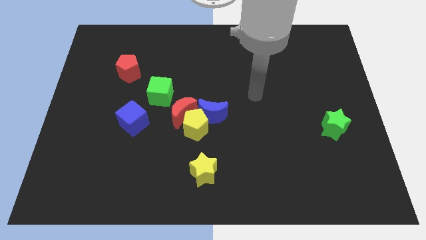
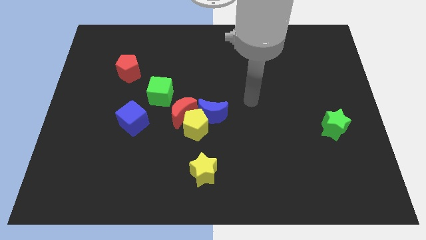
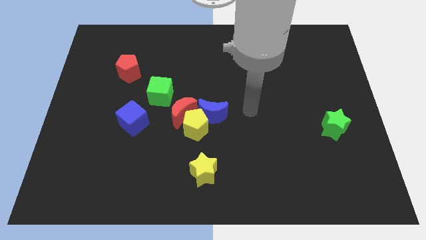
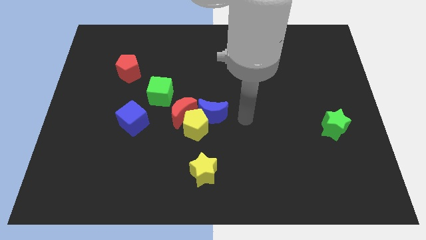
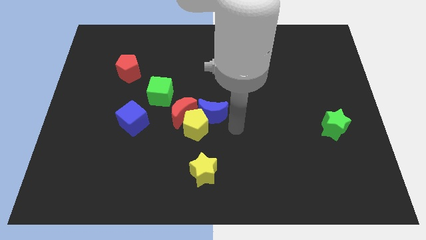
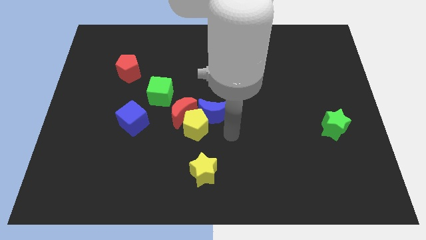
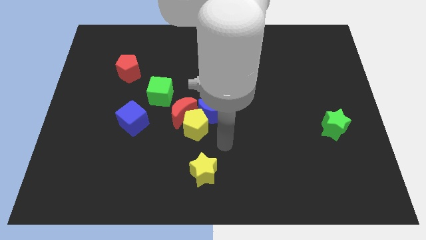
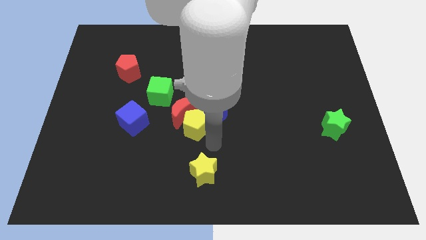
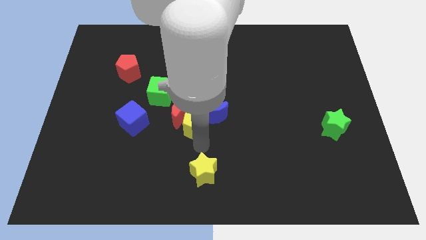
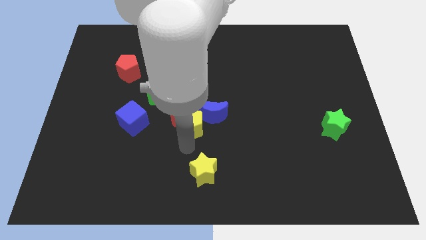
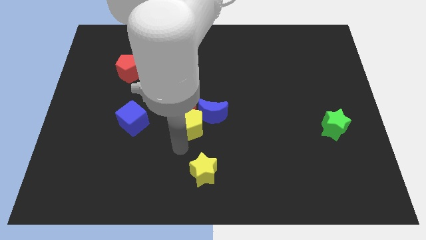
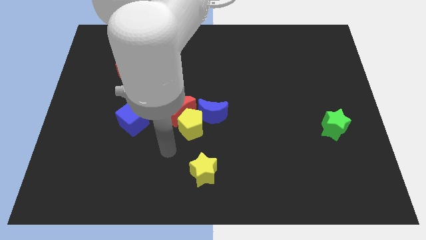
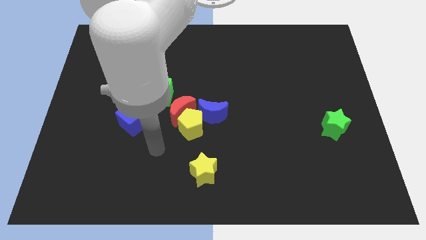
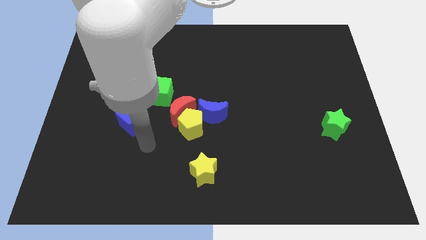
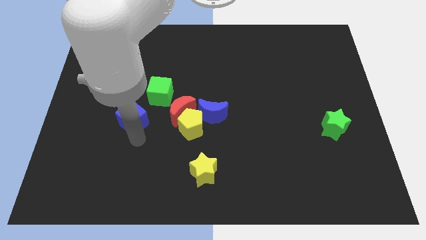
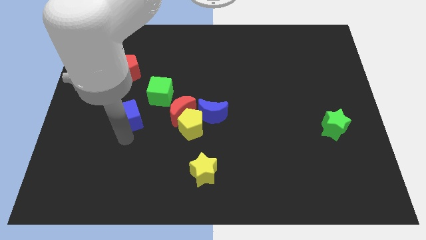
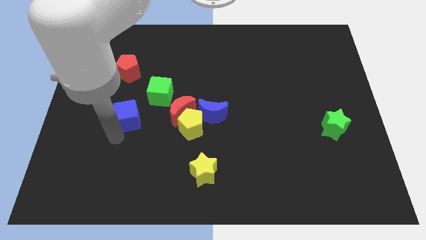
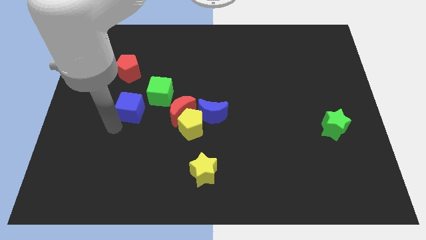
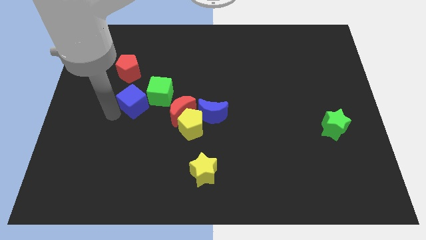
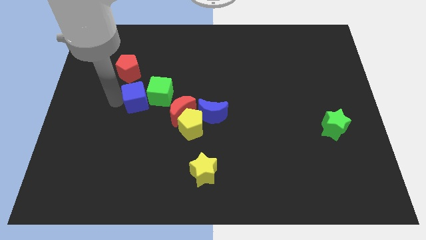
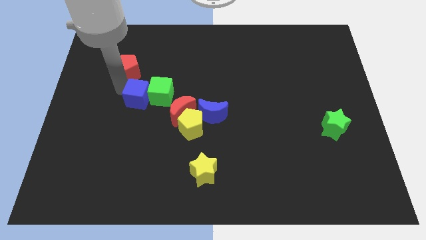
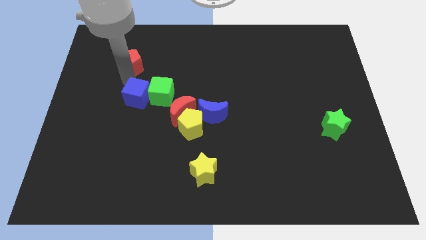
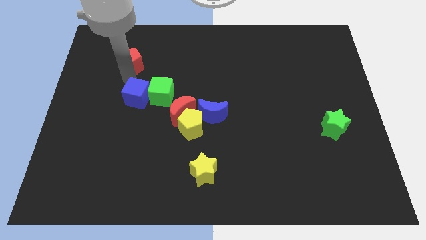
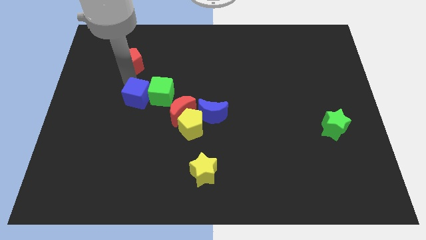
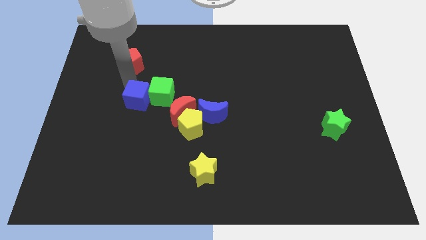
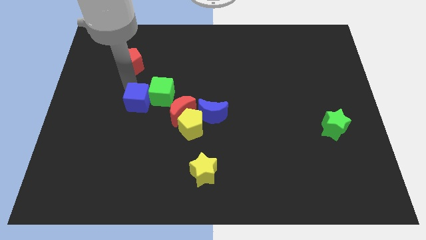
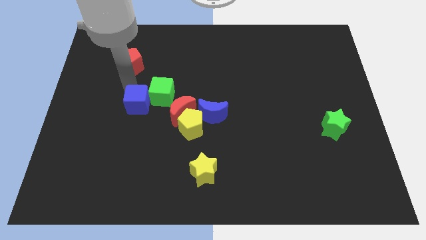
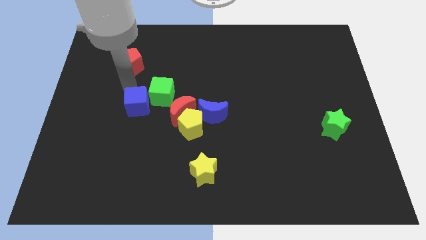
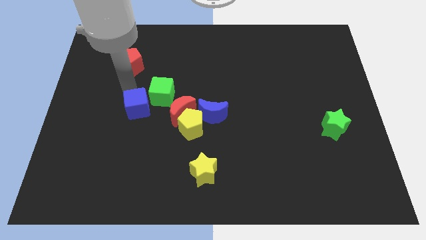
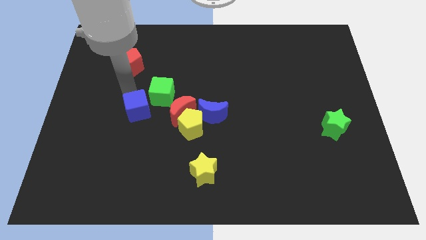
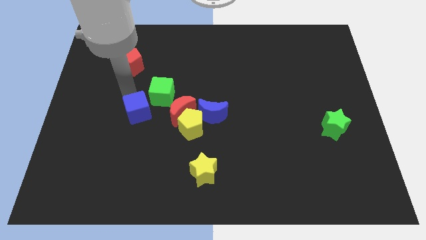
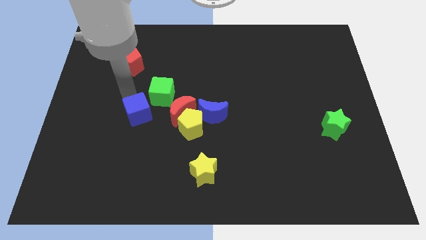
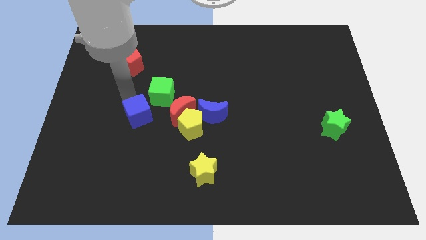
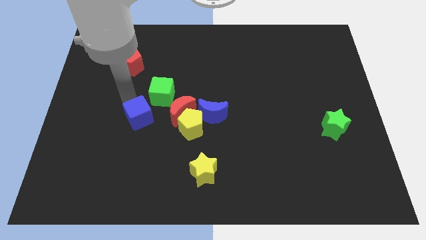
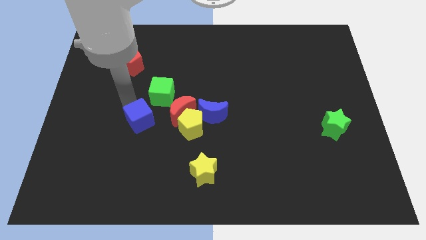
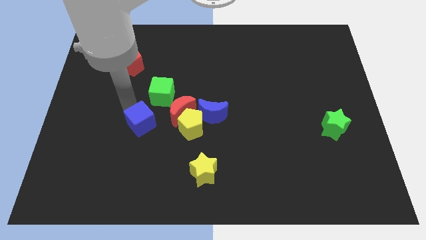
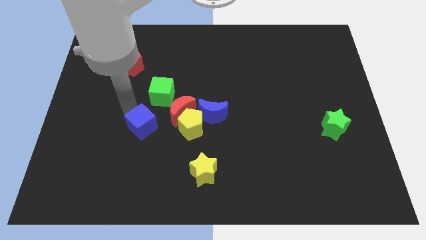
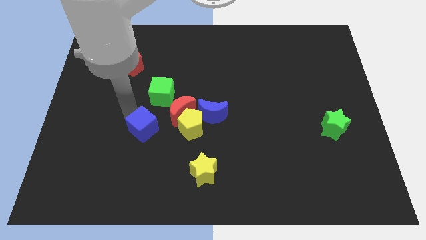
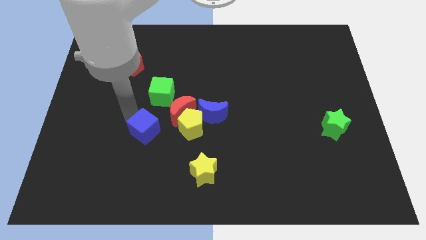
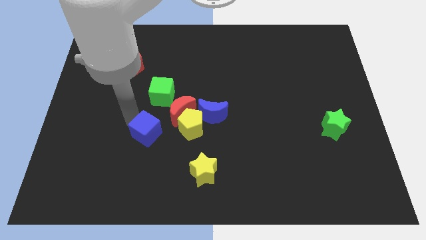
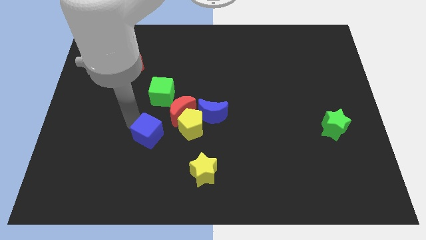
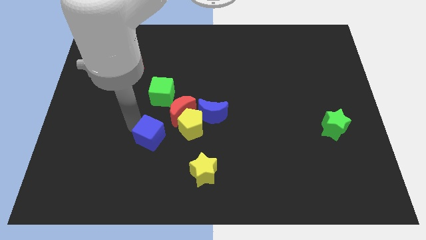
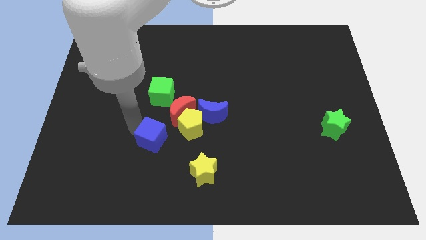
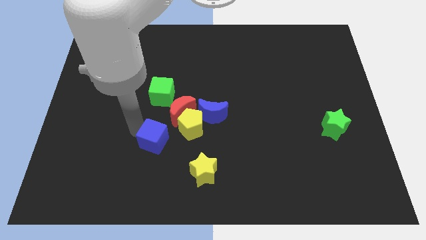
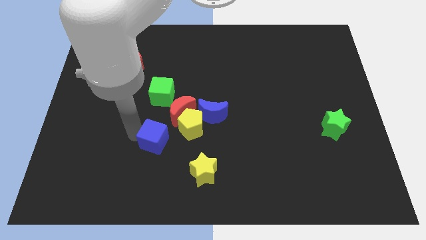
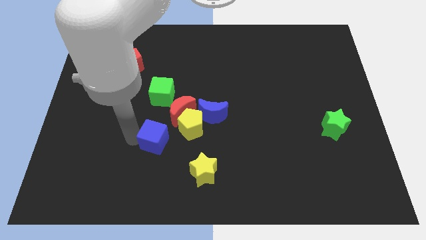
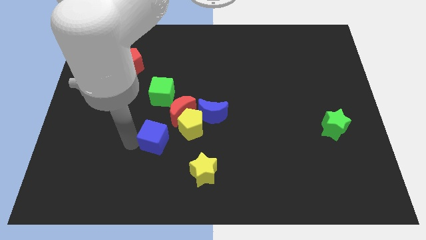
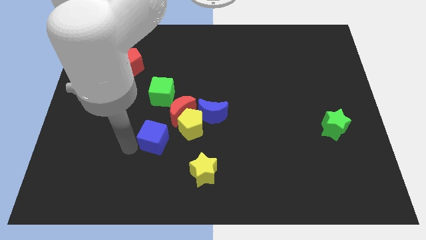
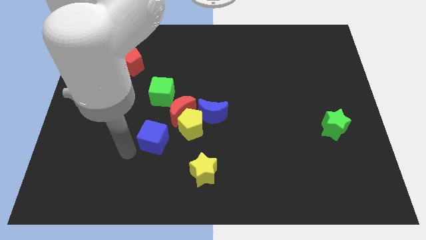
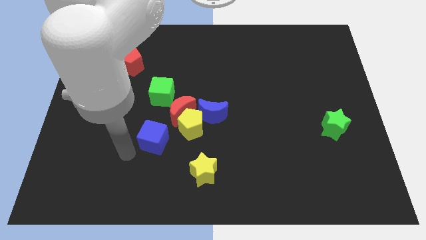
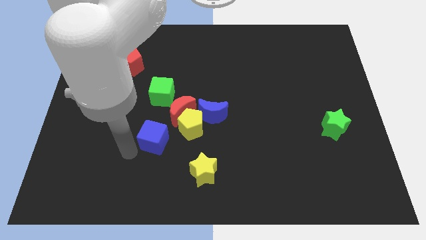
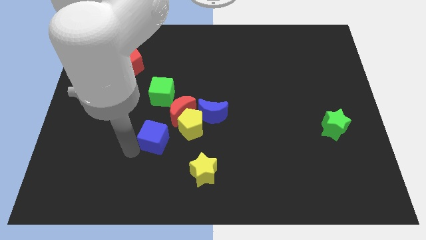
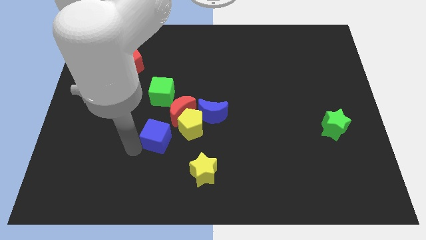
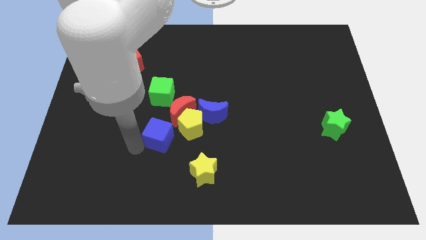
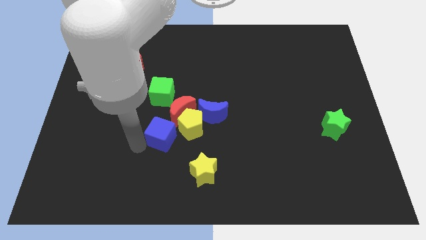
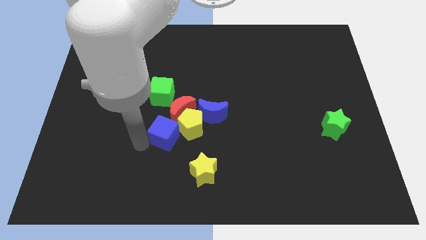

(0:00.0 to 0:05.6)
put the blue cube close to the yellow pentagon

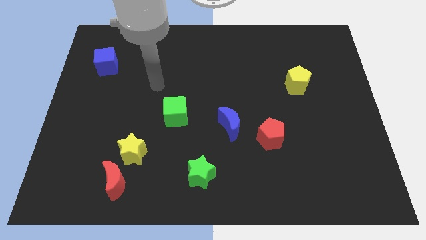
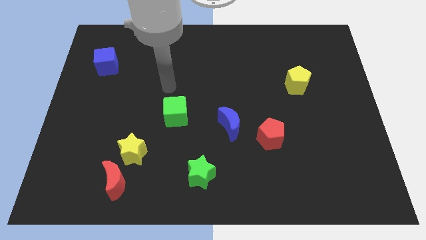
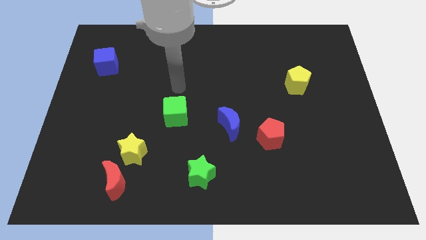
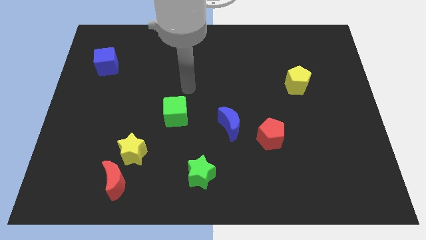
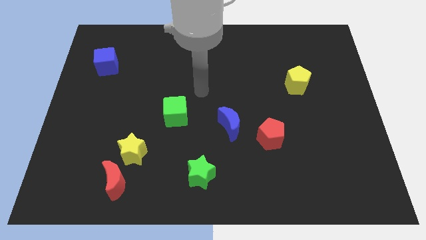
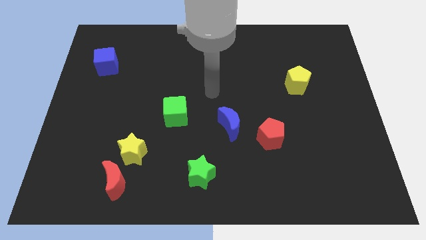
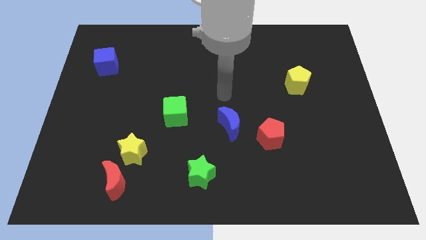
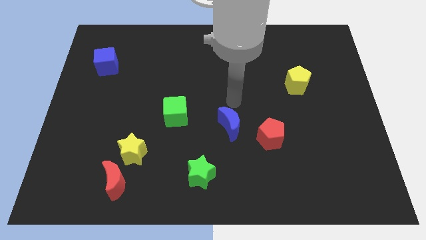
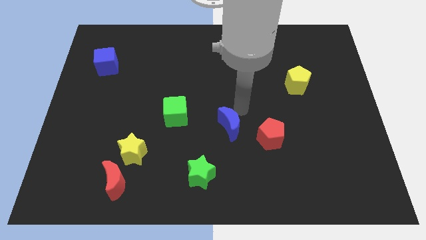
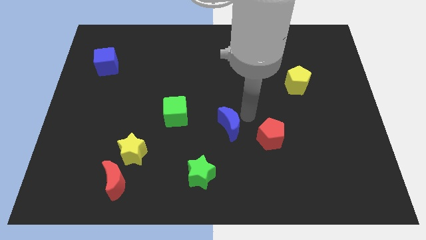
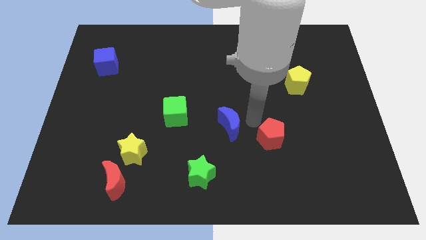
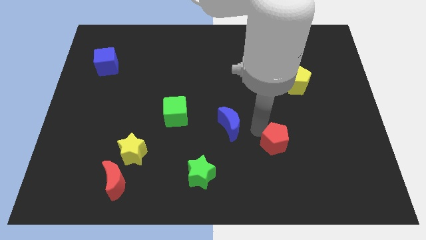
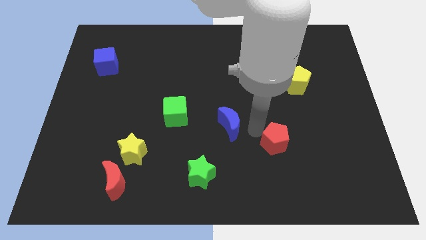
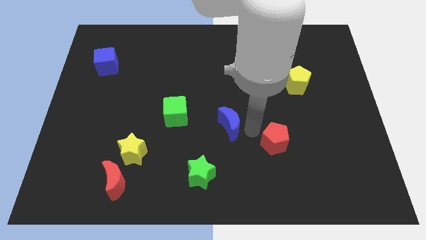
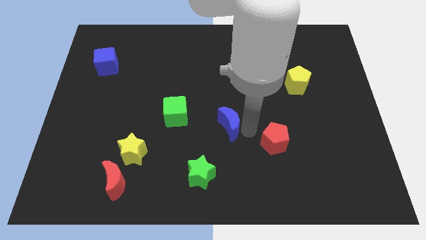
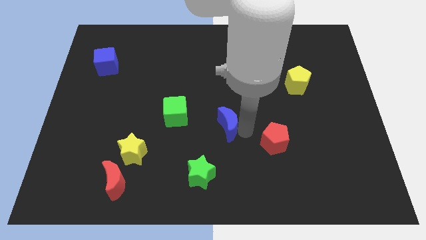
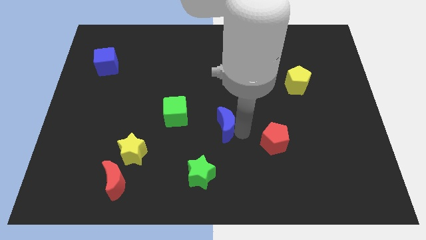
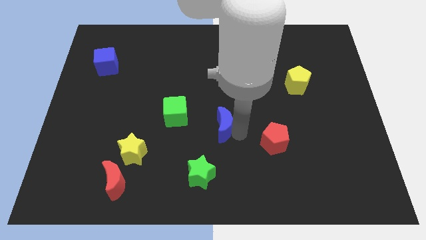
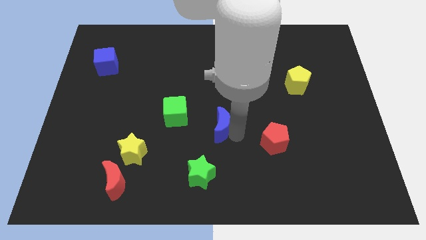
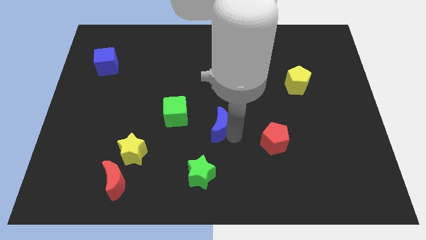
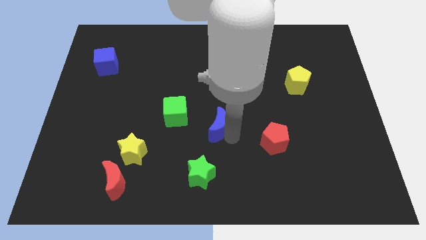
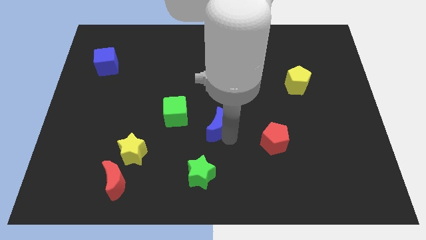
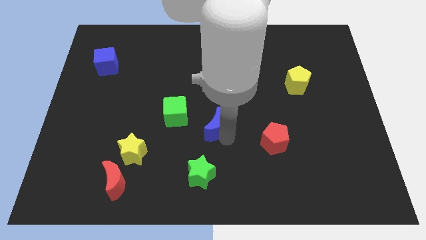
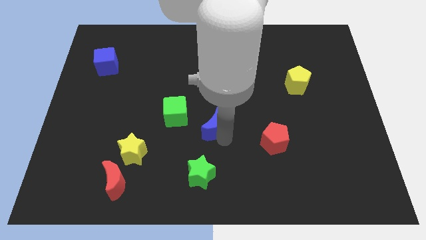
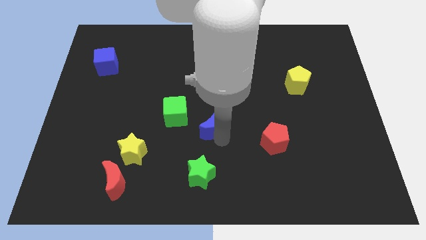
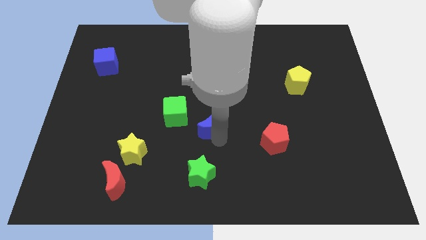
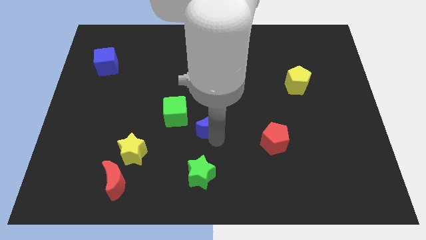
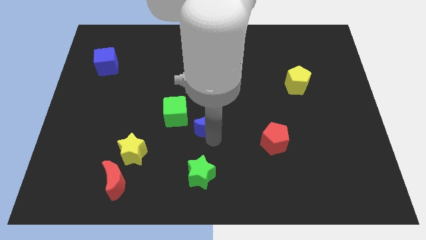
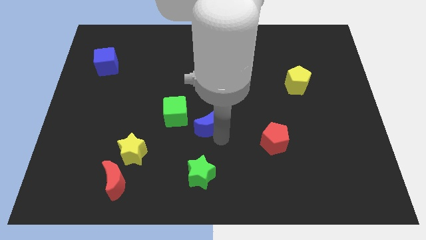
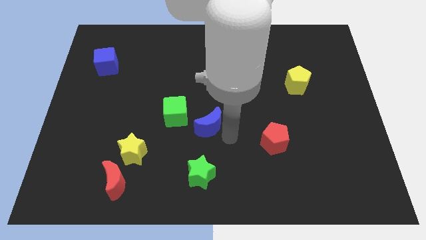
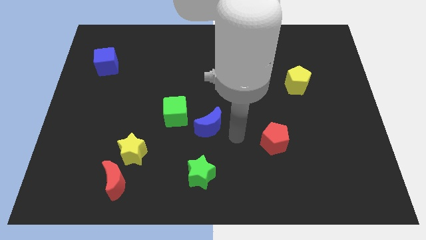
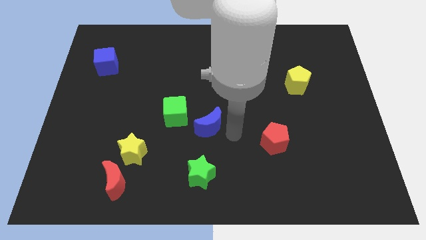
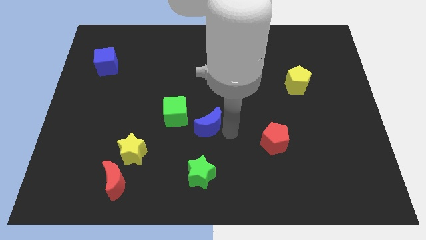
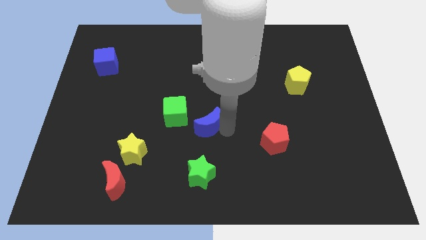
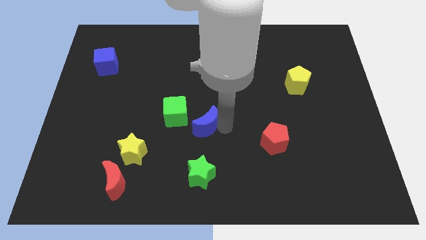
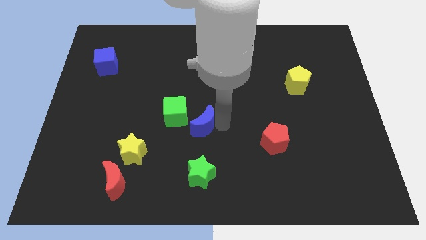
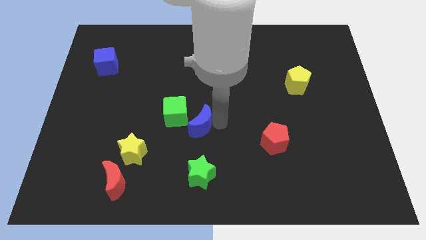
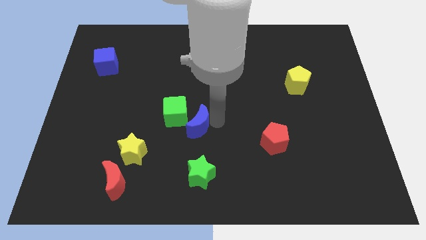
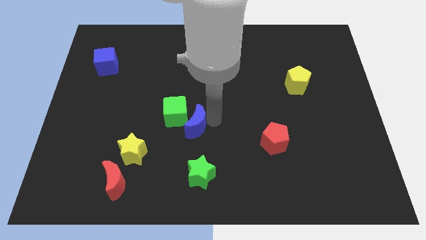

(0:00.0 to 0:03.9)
slide the blue moon towards the green cube
